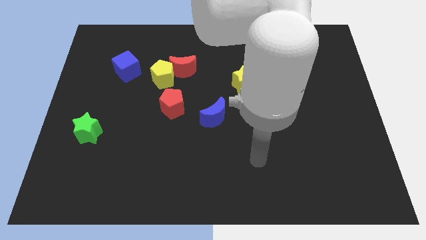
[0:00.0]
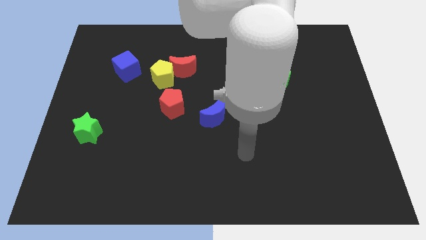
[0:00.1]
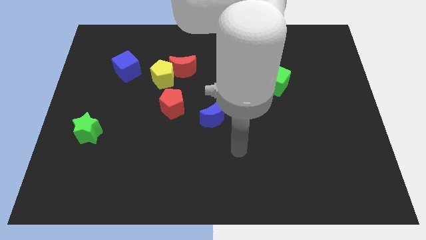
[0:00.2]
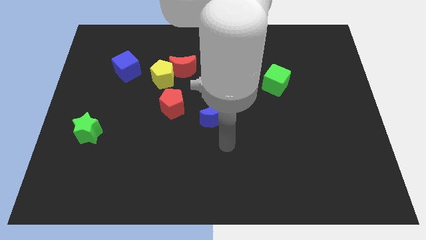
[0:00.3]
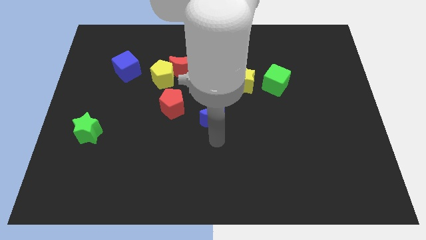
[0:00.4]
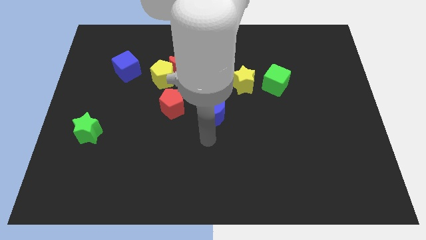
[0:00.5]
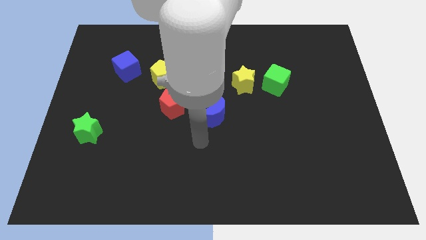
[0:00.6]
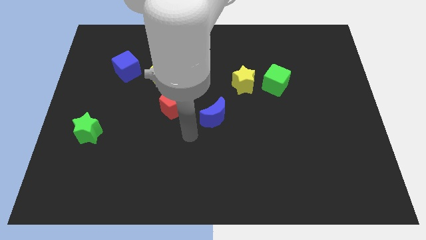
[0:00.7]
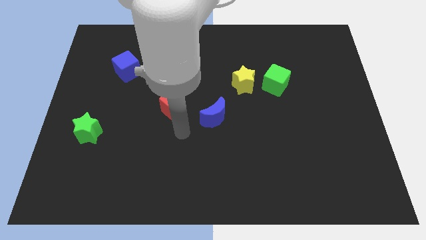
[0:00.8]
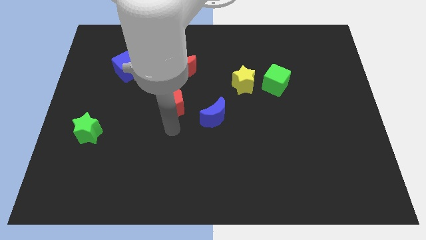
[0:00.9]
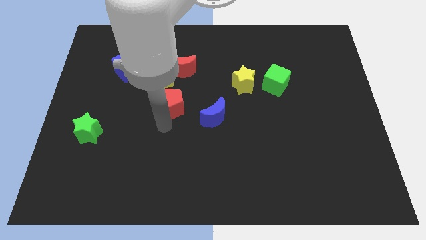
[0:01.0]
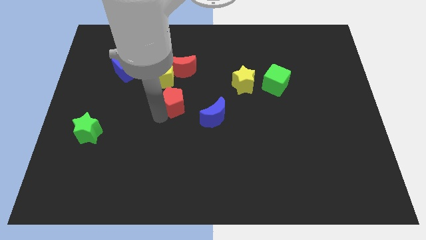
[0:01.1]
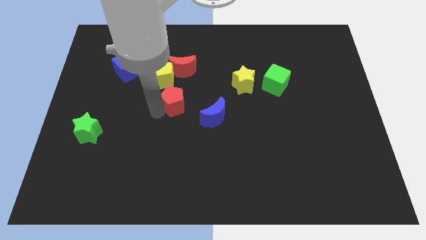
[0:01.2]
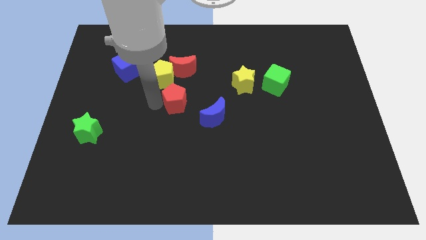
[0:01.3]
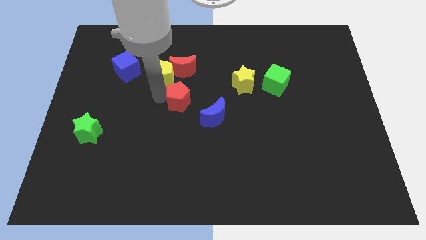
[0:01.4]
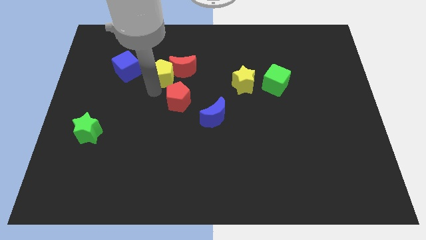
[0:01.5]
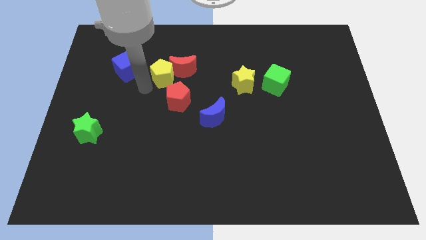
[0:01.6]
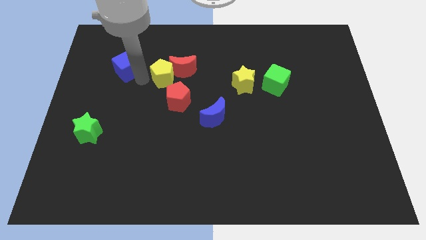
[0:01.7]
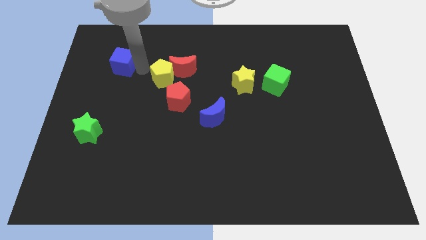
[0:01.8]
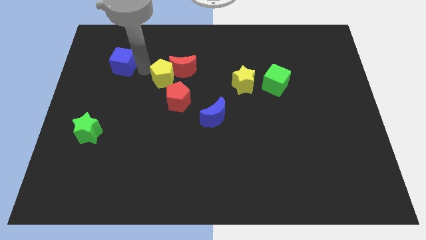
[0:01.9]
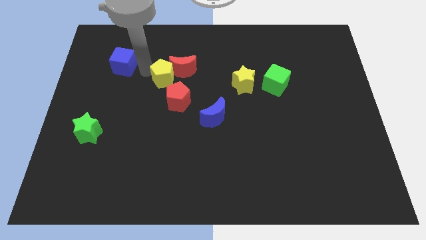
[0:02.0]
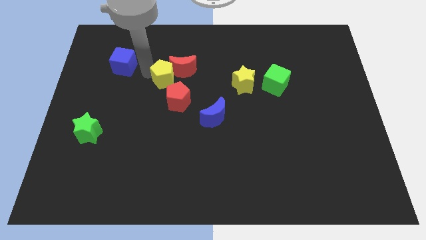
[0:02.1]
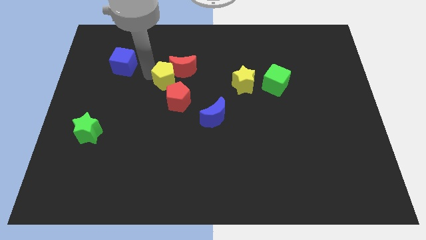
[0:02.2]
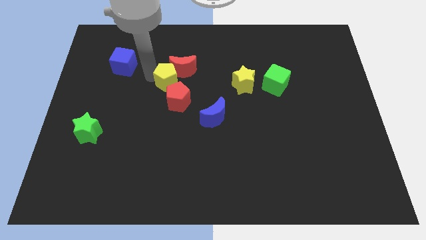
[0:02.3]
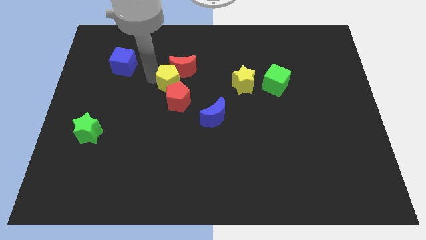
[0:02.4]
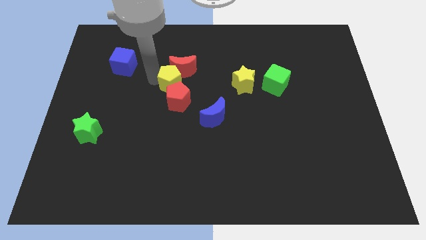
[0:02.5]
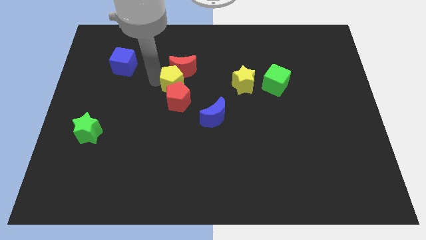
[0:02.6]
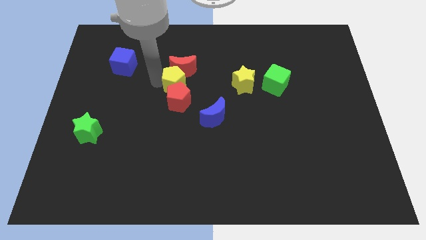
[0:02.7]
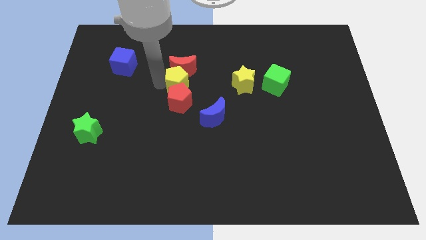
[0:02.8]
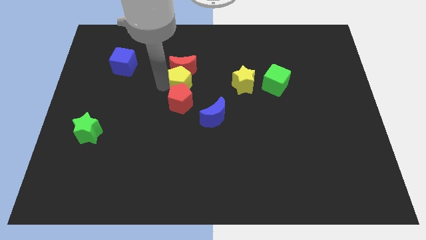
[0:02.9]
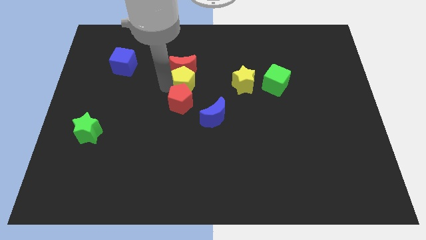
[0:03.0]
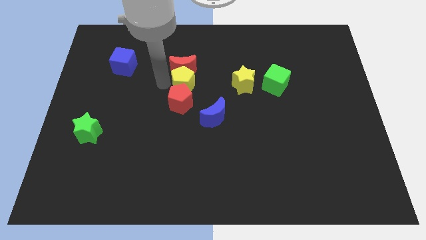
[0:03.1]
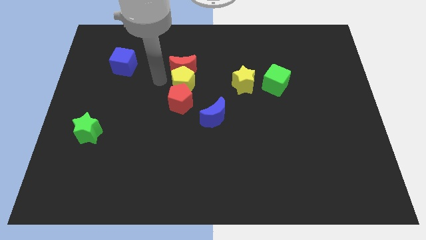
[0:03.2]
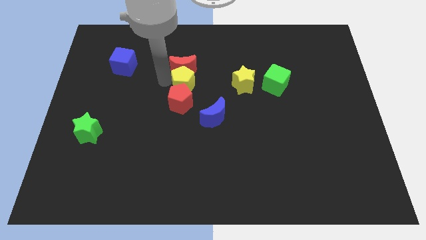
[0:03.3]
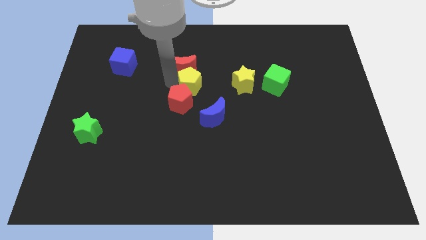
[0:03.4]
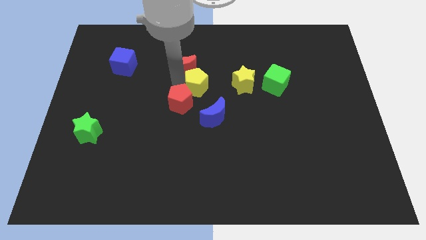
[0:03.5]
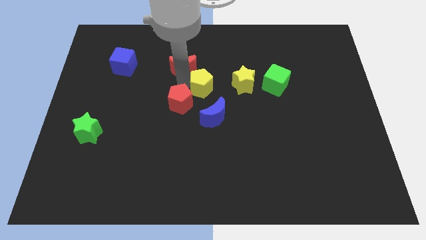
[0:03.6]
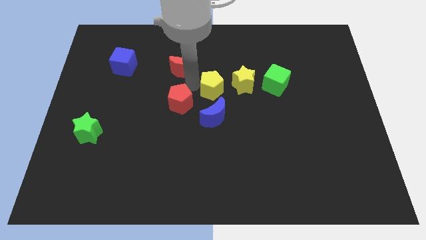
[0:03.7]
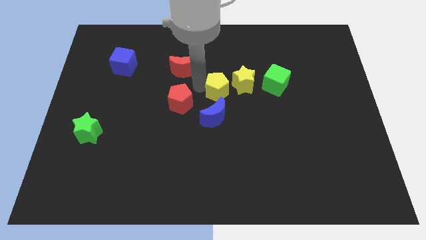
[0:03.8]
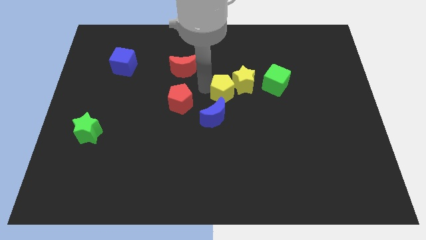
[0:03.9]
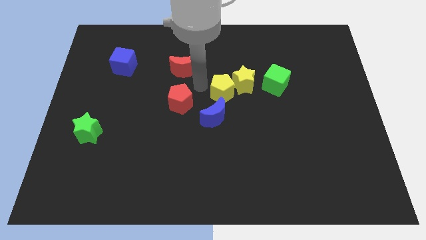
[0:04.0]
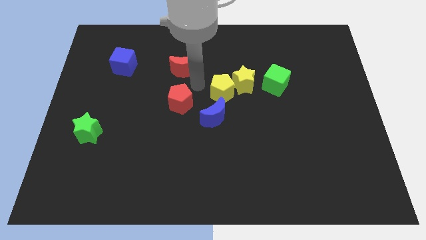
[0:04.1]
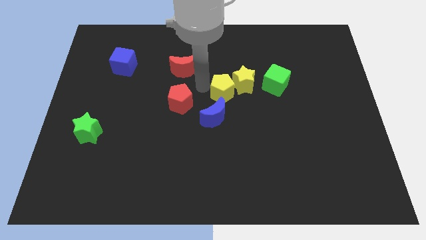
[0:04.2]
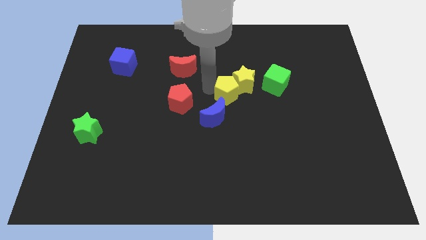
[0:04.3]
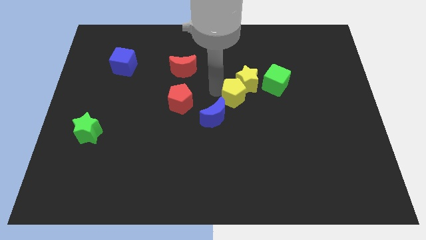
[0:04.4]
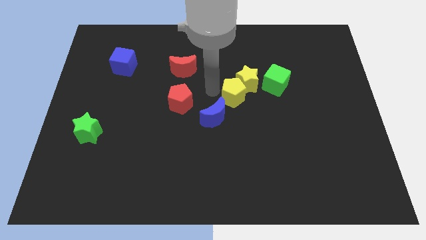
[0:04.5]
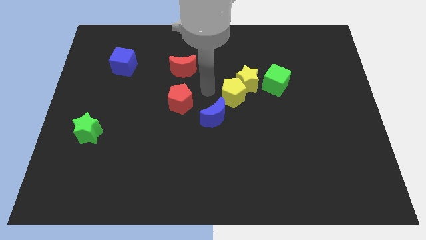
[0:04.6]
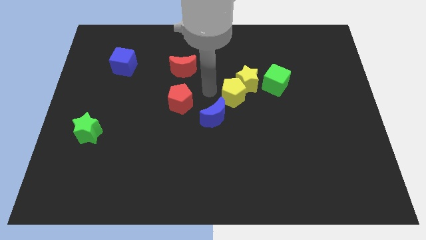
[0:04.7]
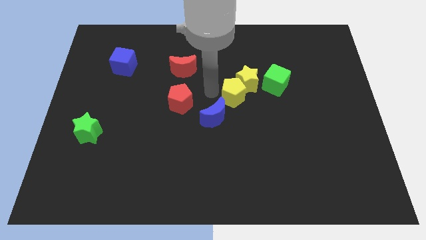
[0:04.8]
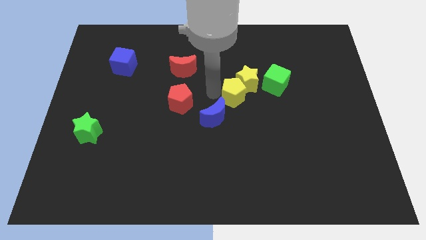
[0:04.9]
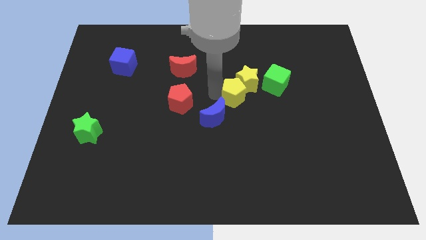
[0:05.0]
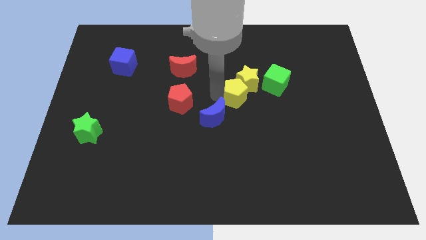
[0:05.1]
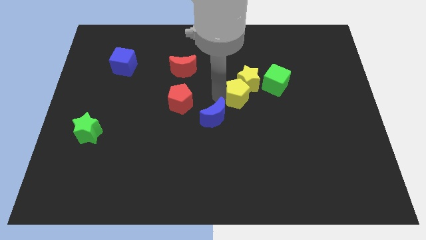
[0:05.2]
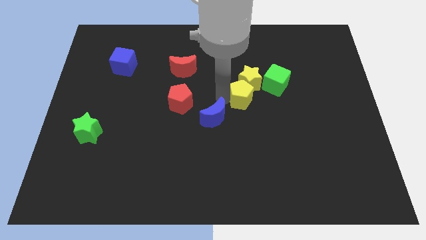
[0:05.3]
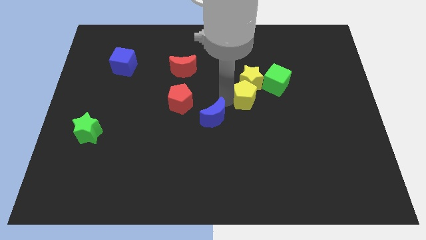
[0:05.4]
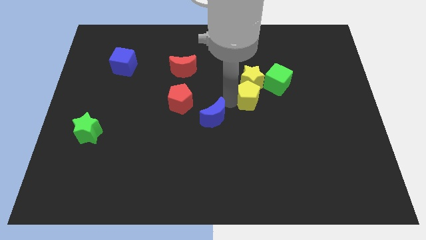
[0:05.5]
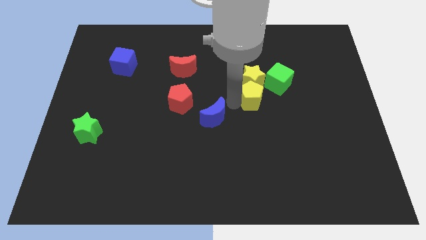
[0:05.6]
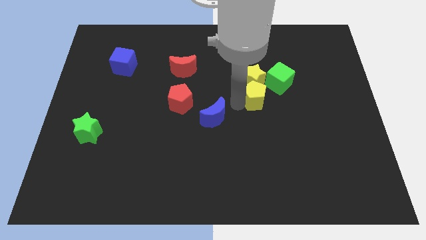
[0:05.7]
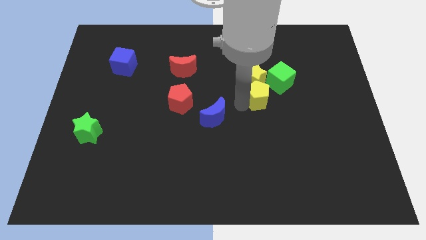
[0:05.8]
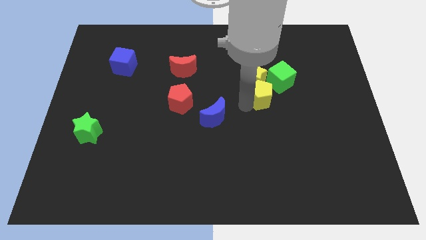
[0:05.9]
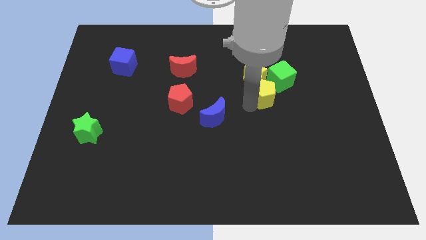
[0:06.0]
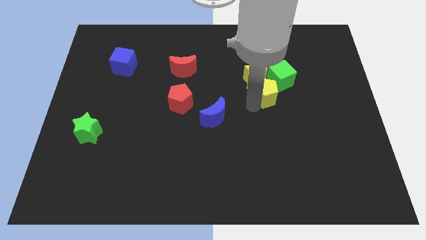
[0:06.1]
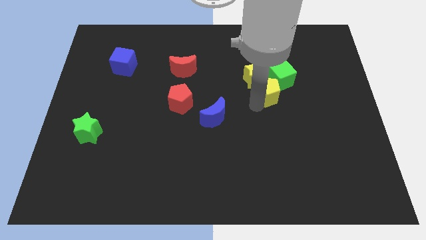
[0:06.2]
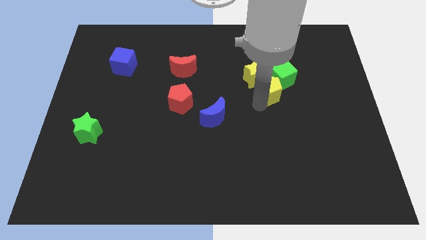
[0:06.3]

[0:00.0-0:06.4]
move the yellow pentagon towards the green cube
